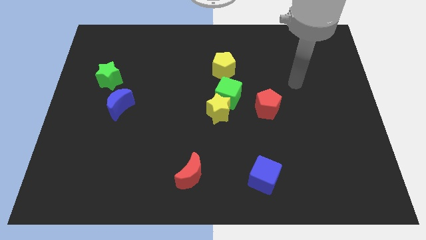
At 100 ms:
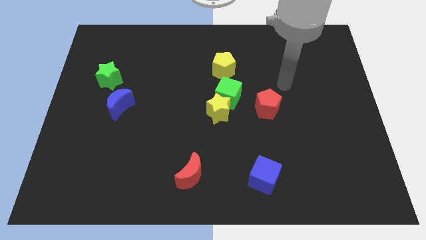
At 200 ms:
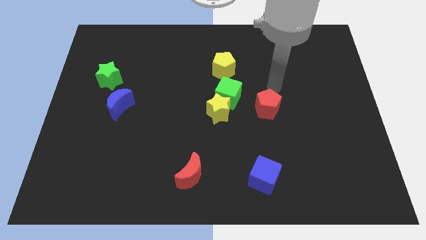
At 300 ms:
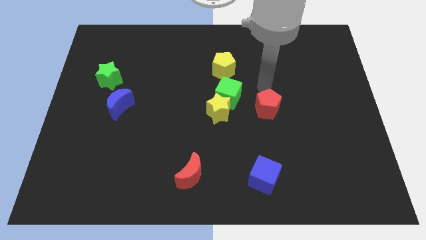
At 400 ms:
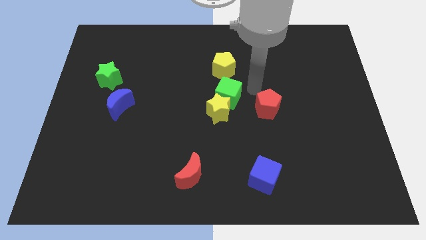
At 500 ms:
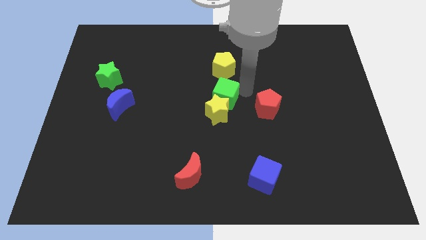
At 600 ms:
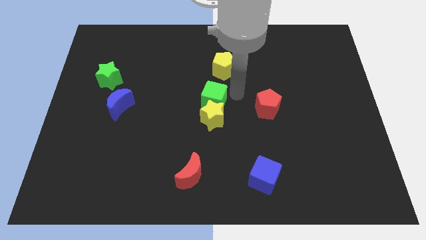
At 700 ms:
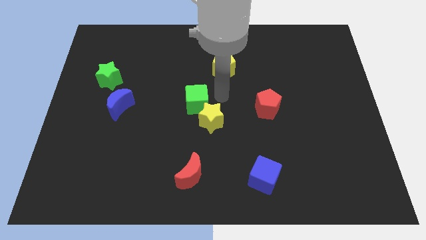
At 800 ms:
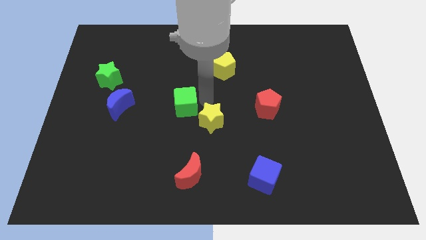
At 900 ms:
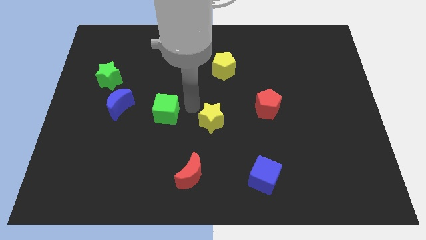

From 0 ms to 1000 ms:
separate the yellow star from the green cube

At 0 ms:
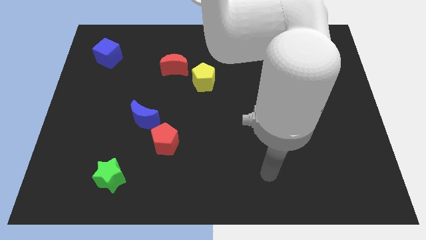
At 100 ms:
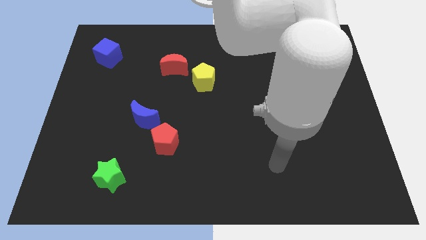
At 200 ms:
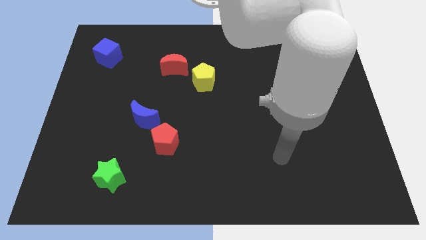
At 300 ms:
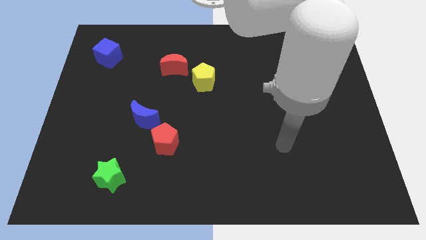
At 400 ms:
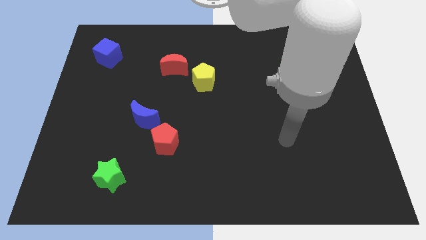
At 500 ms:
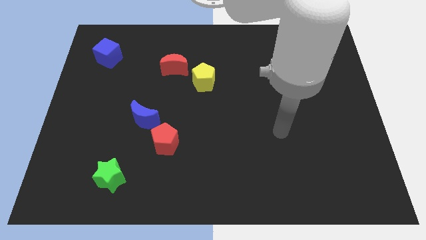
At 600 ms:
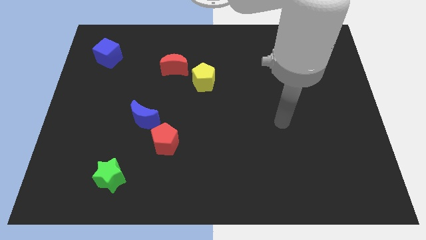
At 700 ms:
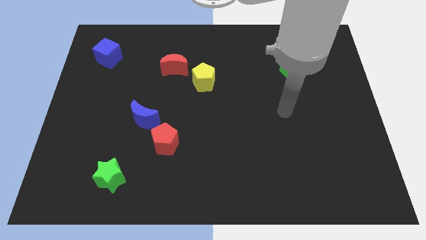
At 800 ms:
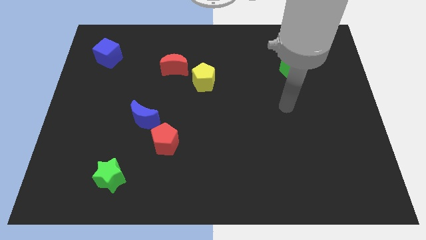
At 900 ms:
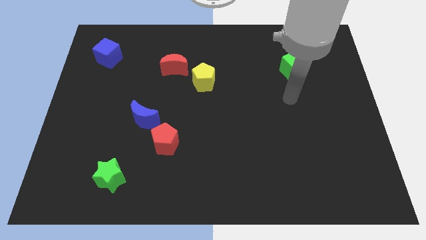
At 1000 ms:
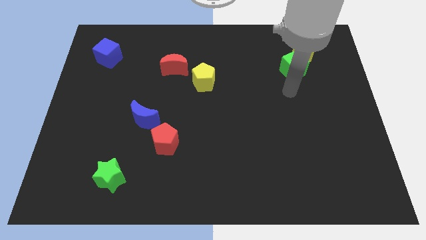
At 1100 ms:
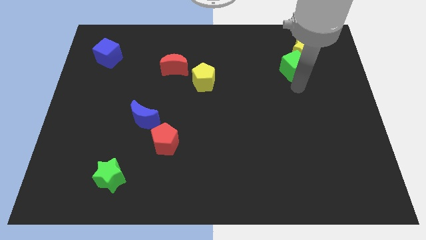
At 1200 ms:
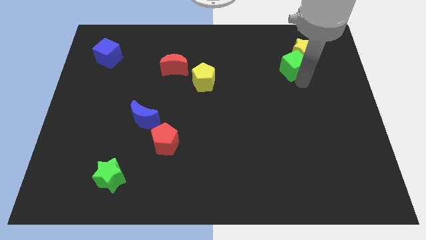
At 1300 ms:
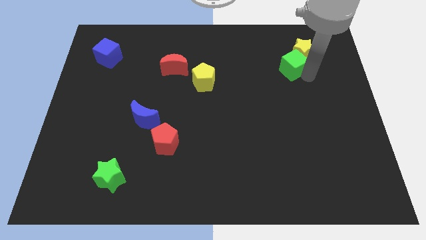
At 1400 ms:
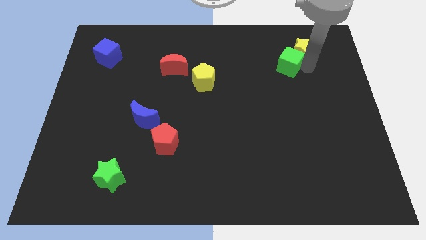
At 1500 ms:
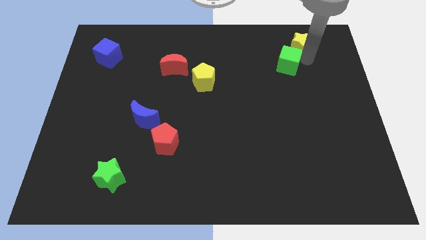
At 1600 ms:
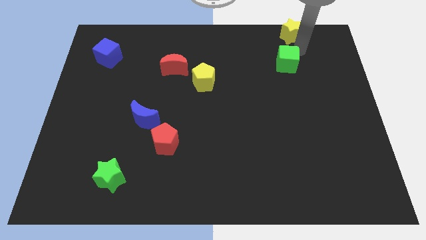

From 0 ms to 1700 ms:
move the green cube away from the yellow star

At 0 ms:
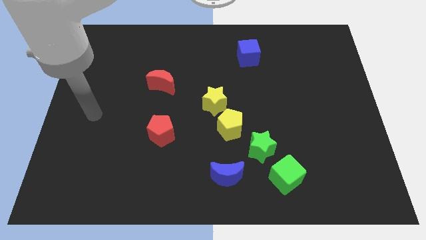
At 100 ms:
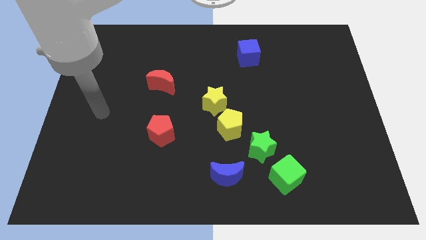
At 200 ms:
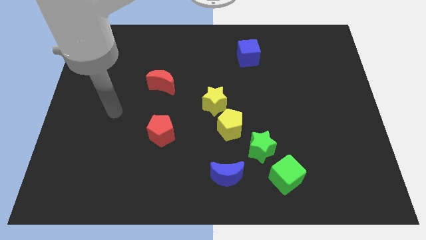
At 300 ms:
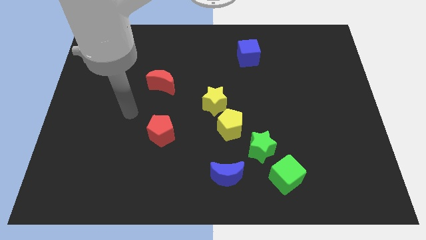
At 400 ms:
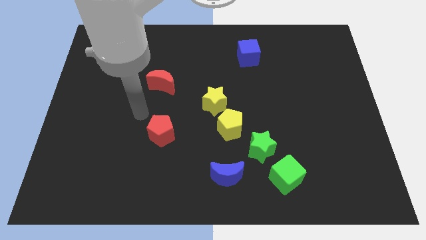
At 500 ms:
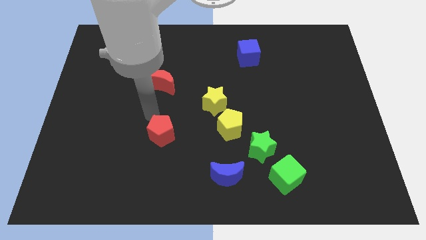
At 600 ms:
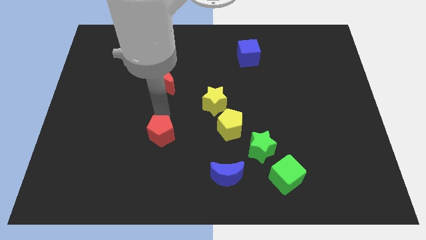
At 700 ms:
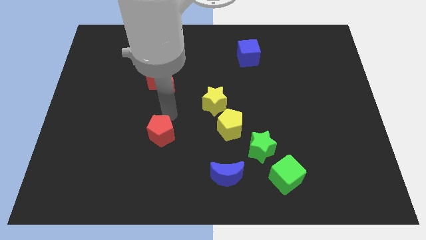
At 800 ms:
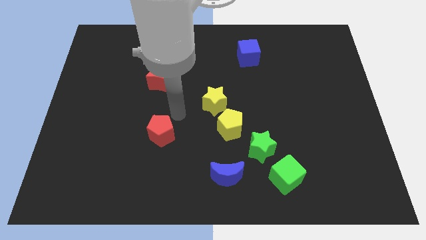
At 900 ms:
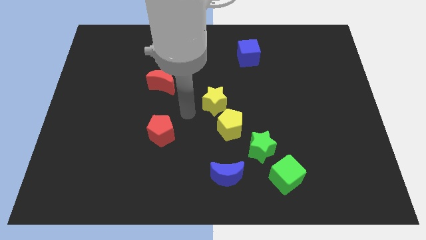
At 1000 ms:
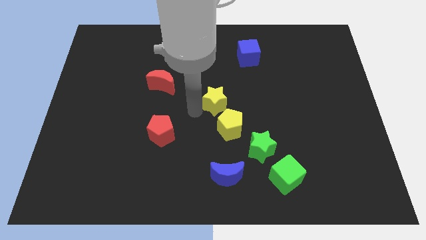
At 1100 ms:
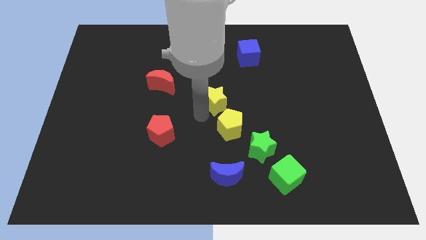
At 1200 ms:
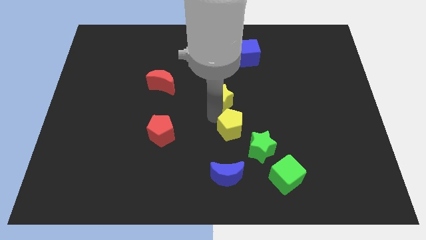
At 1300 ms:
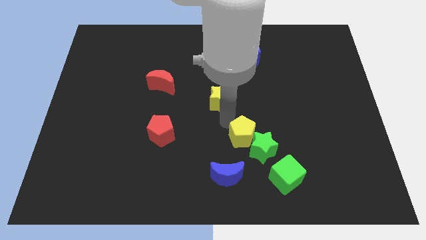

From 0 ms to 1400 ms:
move the yellow star away from the yellow pentagon

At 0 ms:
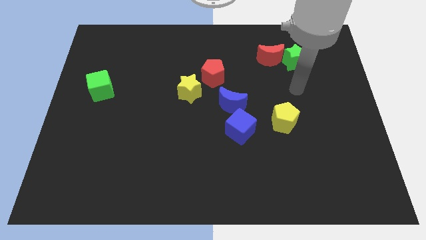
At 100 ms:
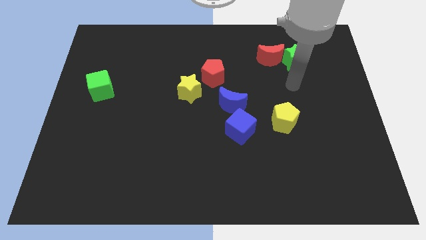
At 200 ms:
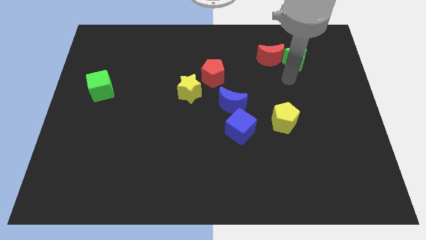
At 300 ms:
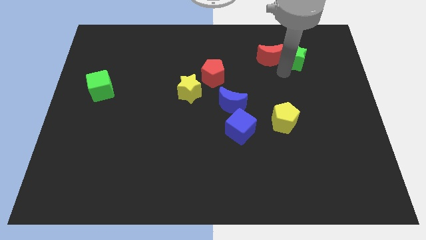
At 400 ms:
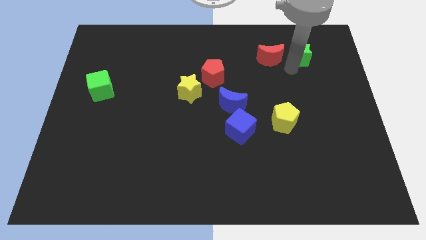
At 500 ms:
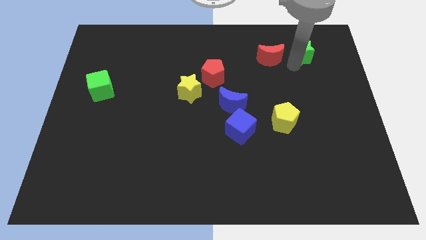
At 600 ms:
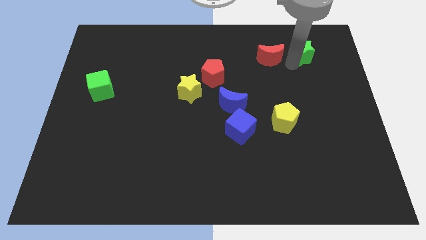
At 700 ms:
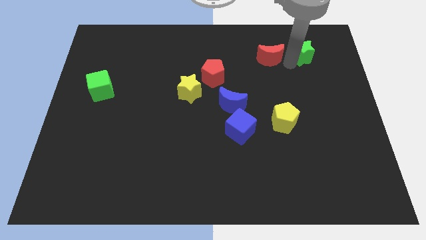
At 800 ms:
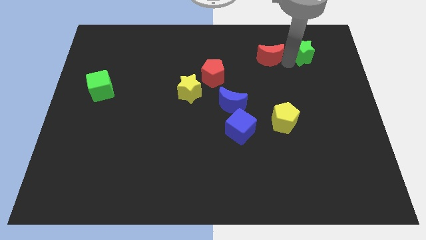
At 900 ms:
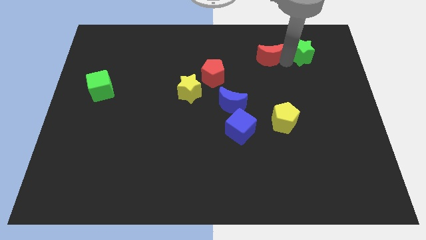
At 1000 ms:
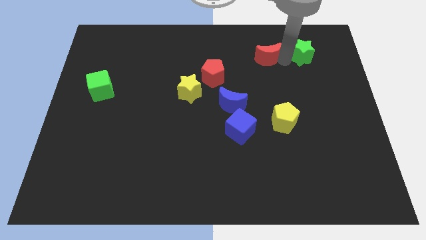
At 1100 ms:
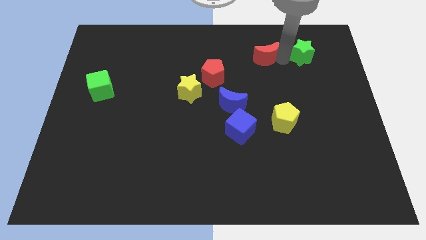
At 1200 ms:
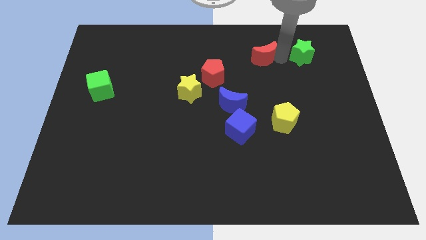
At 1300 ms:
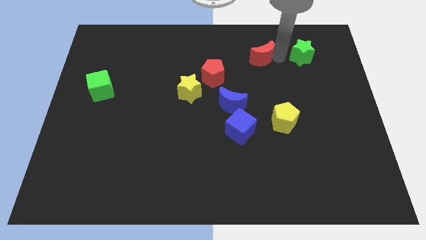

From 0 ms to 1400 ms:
move the red moon away from the green star

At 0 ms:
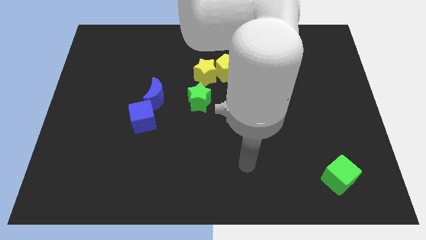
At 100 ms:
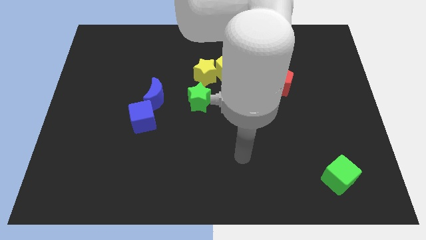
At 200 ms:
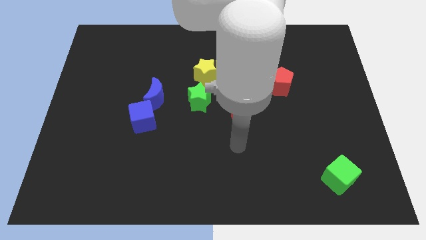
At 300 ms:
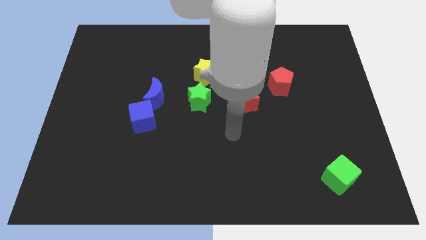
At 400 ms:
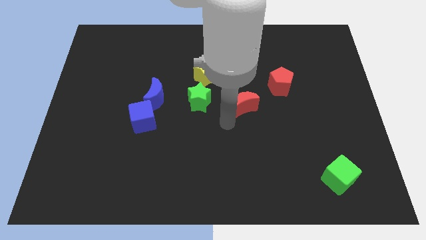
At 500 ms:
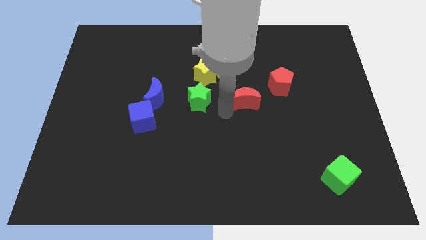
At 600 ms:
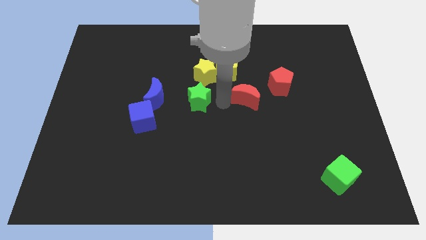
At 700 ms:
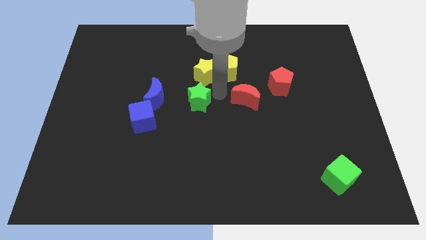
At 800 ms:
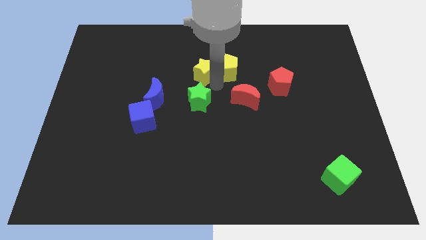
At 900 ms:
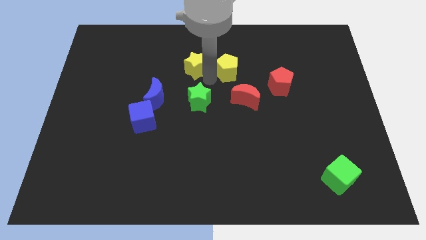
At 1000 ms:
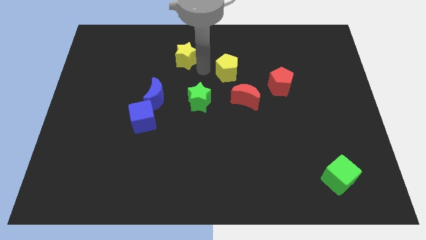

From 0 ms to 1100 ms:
move the yellow pentagon away from the yellow star

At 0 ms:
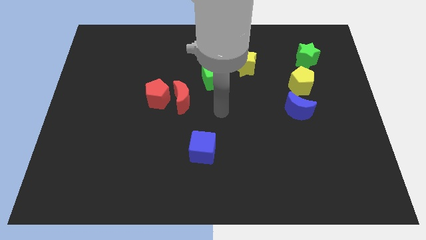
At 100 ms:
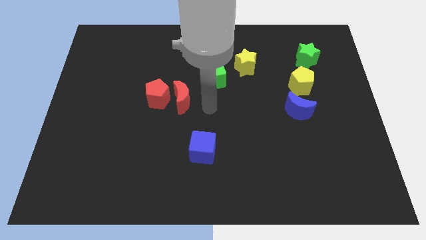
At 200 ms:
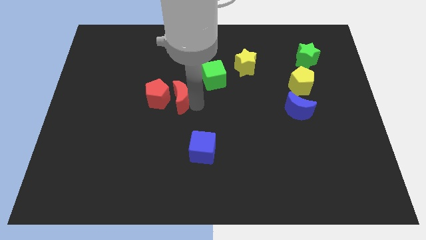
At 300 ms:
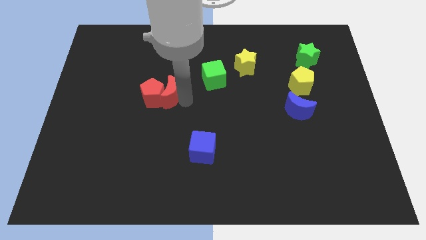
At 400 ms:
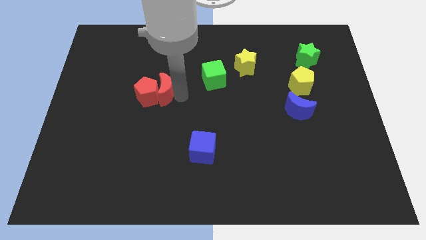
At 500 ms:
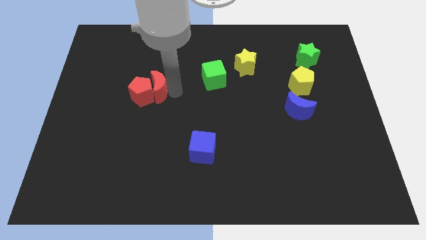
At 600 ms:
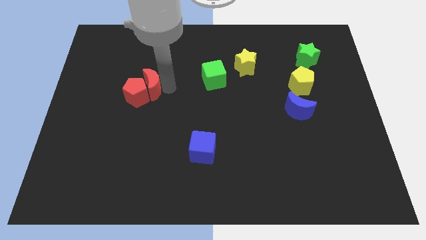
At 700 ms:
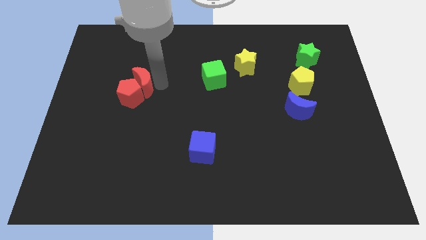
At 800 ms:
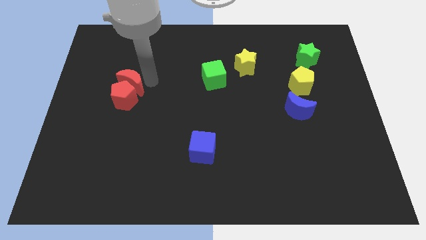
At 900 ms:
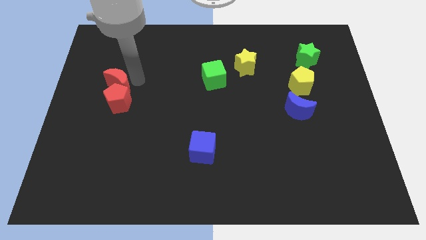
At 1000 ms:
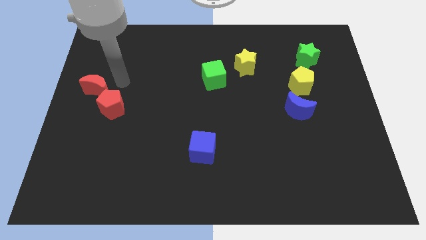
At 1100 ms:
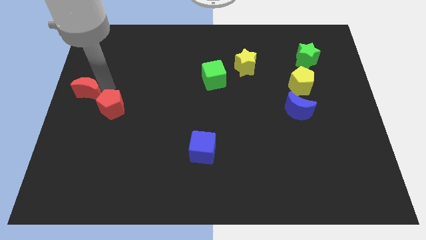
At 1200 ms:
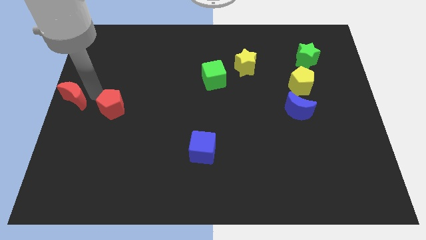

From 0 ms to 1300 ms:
move the red pentagon away from the red moon

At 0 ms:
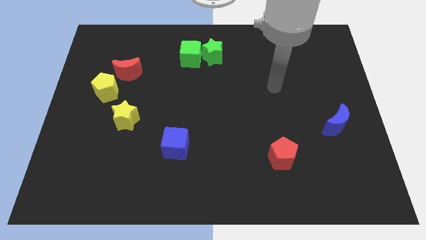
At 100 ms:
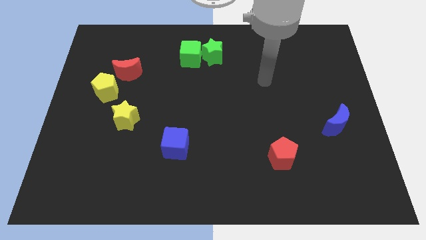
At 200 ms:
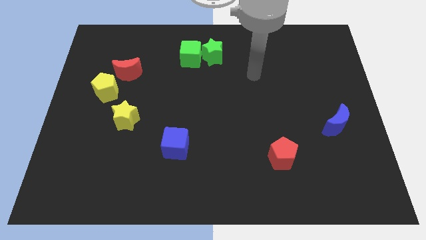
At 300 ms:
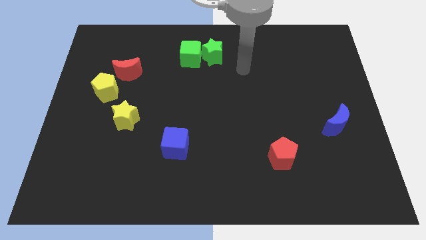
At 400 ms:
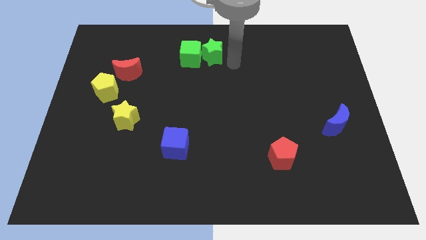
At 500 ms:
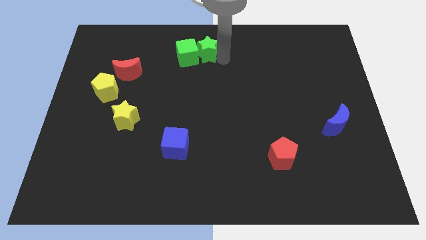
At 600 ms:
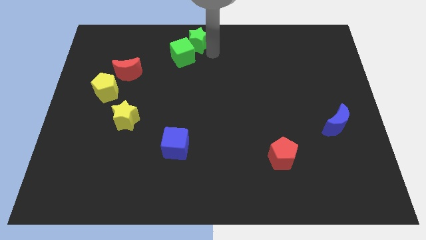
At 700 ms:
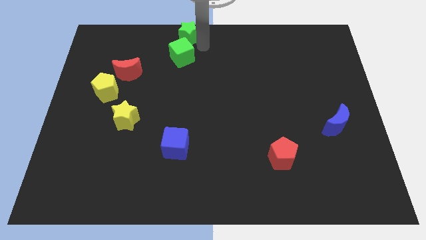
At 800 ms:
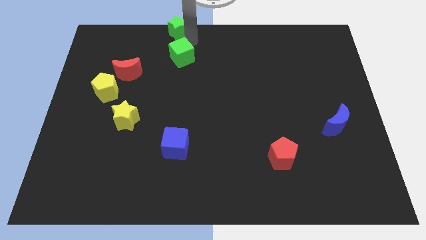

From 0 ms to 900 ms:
move the green cube away from the green star

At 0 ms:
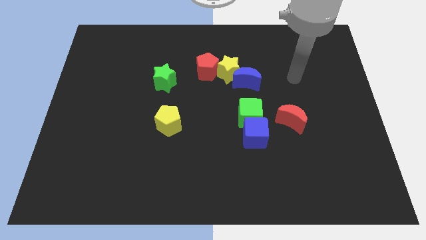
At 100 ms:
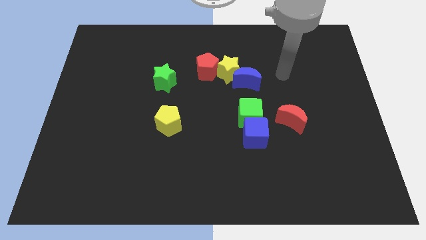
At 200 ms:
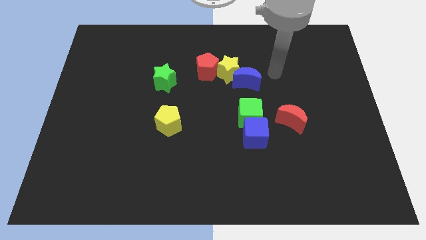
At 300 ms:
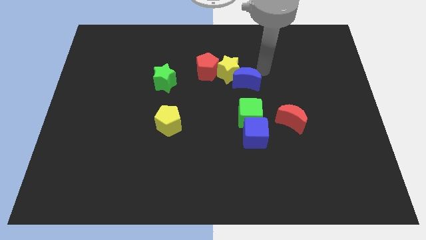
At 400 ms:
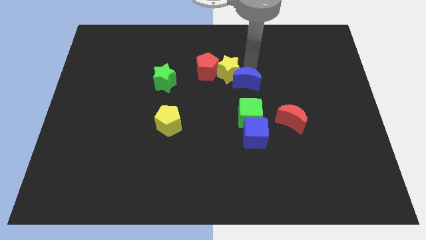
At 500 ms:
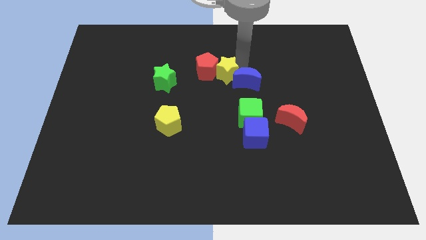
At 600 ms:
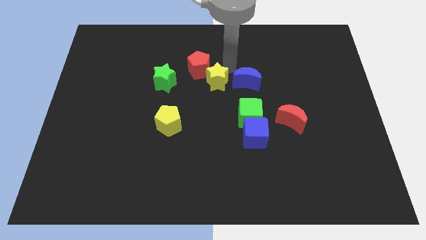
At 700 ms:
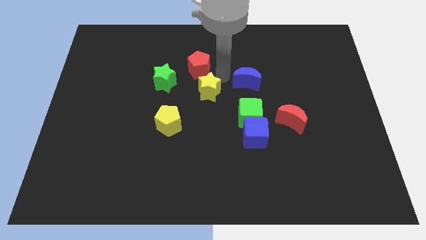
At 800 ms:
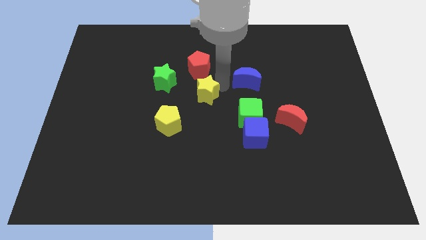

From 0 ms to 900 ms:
move the blue moon away from the yellow star
